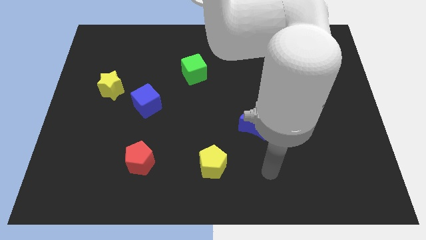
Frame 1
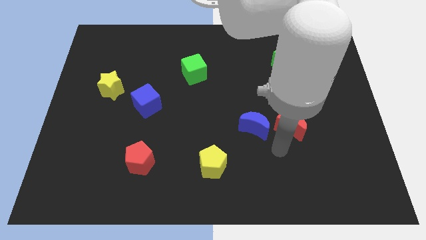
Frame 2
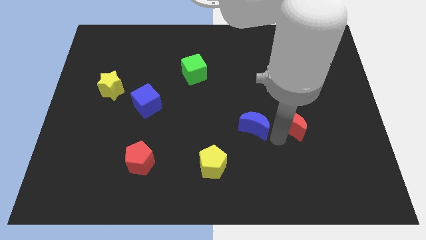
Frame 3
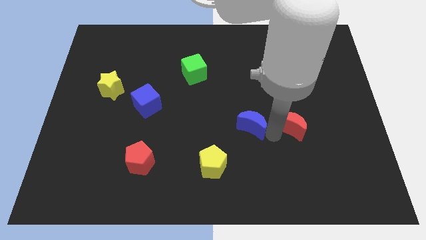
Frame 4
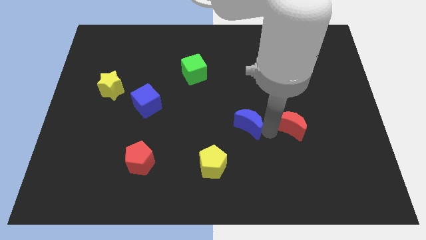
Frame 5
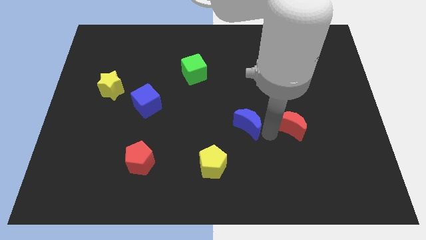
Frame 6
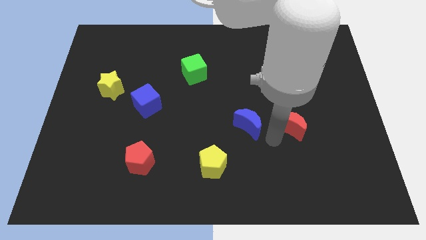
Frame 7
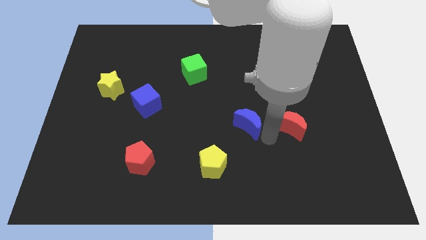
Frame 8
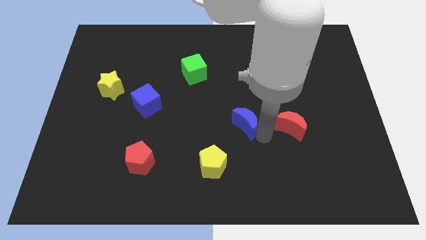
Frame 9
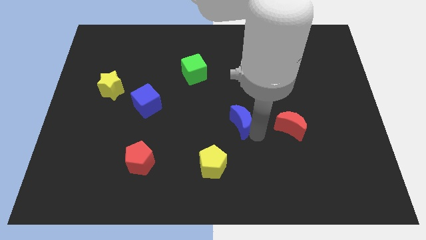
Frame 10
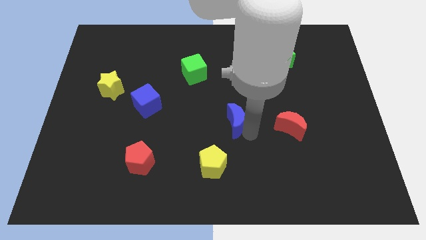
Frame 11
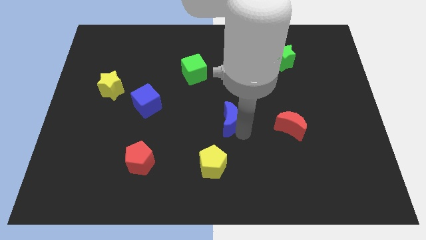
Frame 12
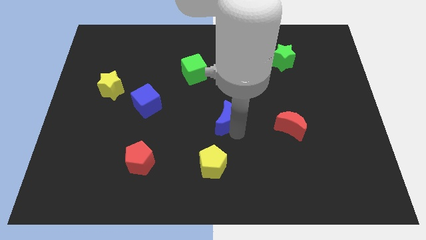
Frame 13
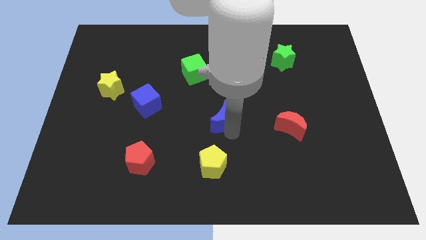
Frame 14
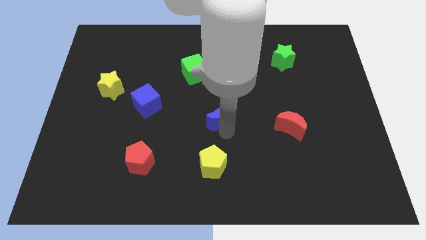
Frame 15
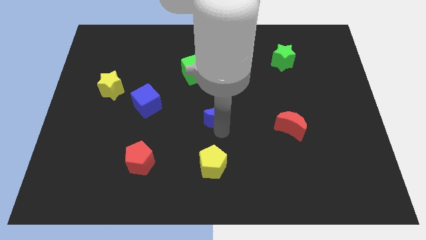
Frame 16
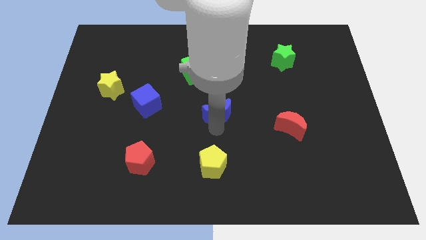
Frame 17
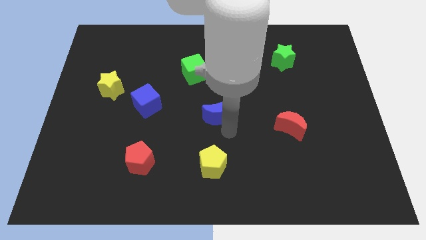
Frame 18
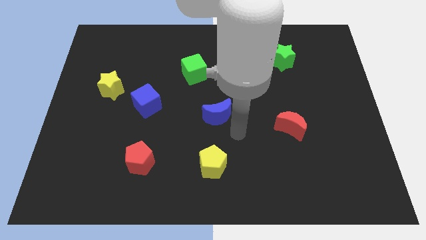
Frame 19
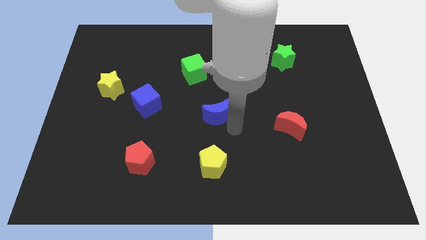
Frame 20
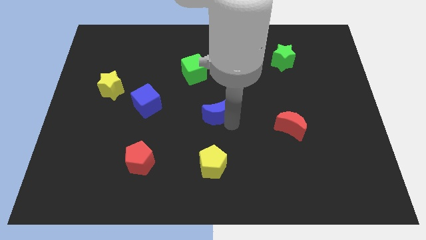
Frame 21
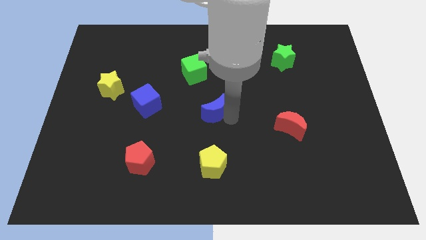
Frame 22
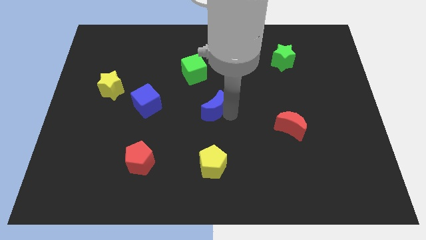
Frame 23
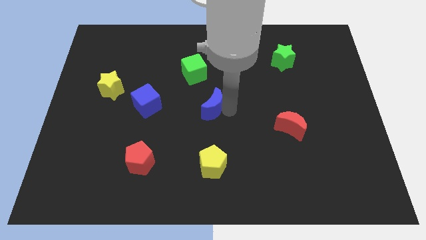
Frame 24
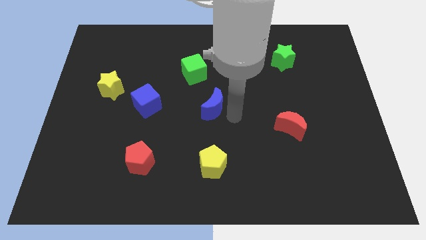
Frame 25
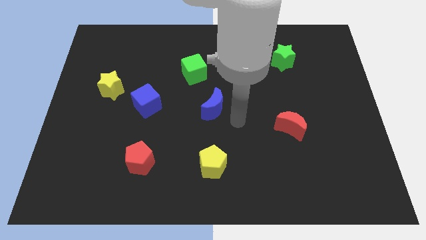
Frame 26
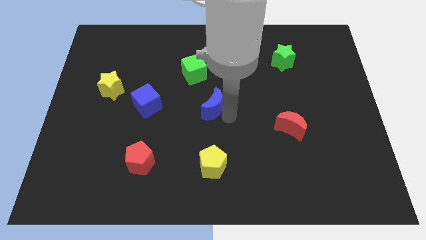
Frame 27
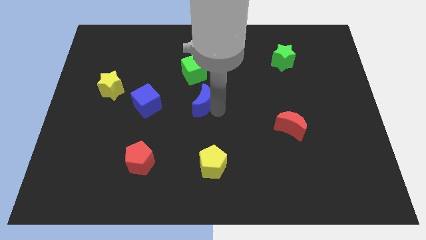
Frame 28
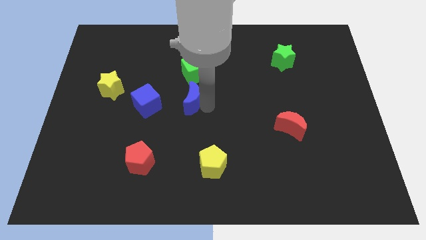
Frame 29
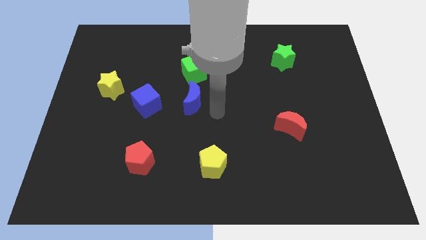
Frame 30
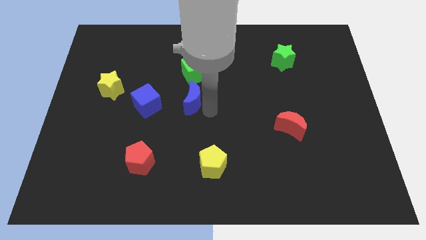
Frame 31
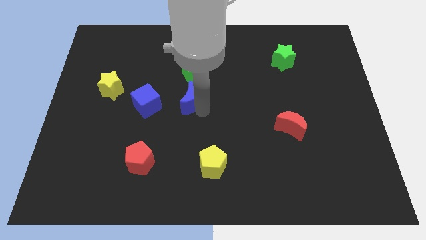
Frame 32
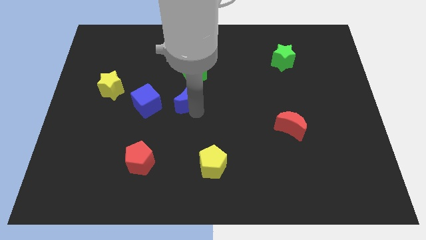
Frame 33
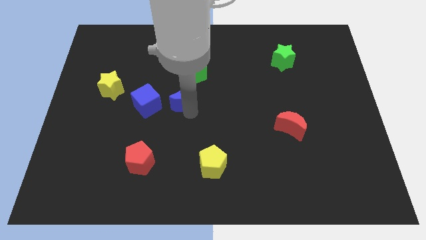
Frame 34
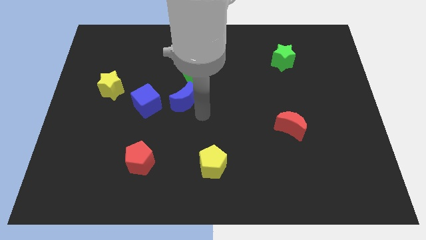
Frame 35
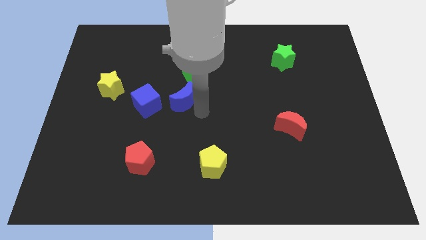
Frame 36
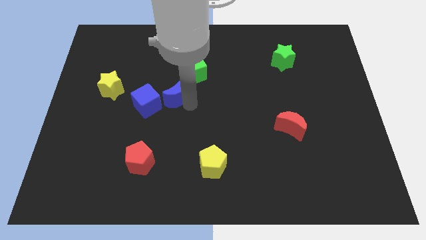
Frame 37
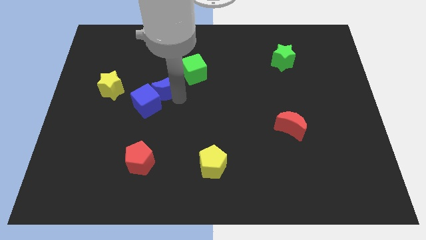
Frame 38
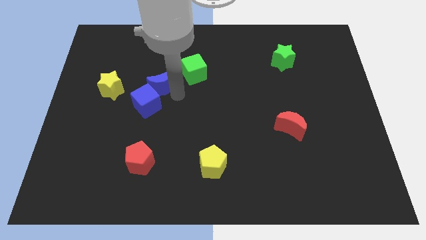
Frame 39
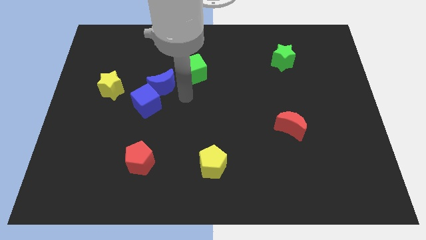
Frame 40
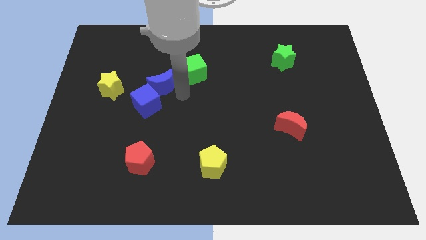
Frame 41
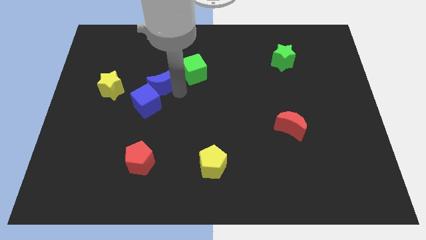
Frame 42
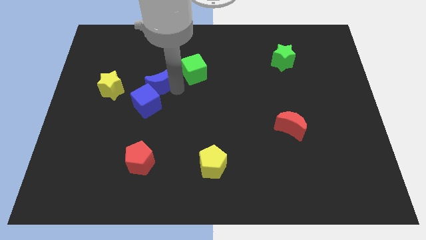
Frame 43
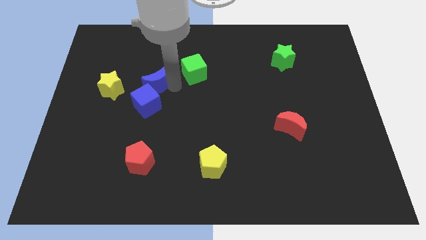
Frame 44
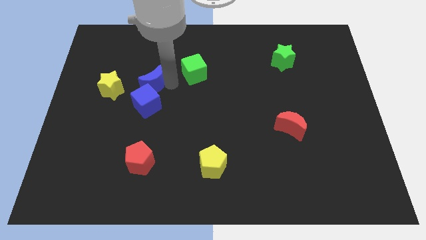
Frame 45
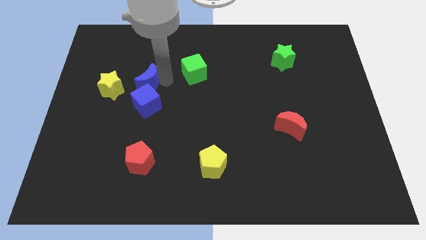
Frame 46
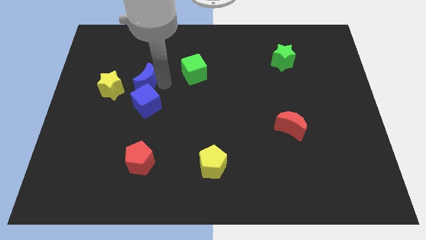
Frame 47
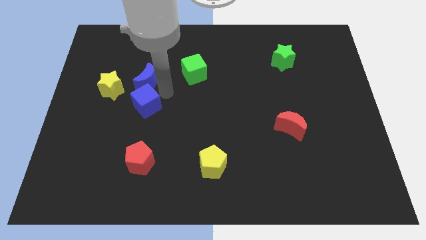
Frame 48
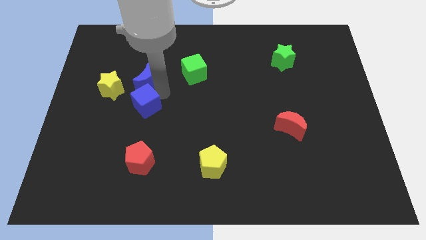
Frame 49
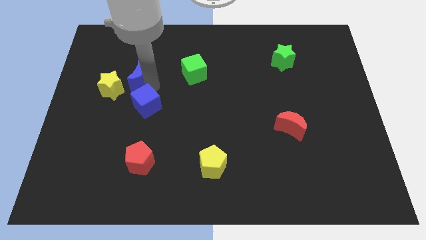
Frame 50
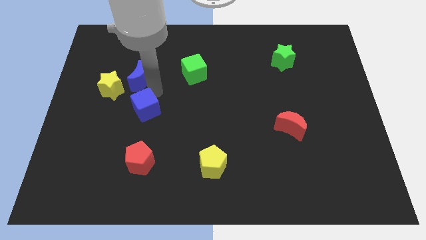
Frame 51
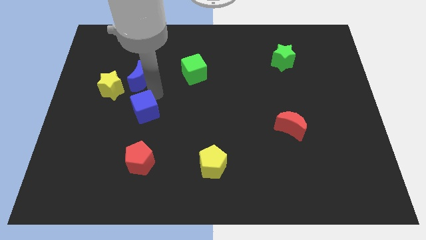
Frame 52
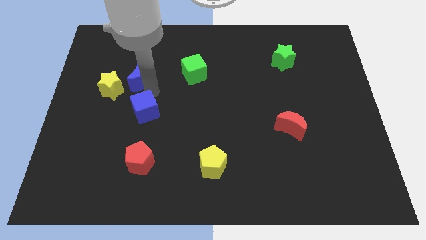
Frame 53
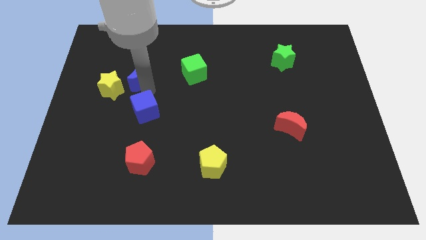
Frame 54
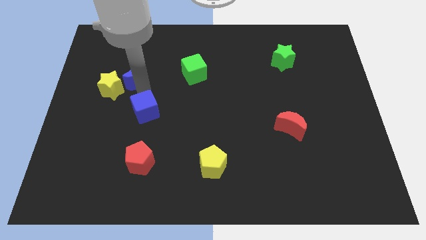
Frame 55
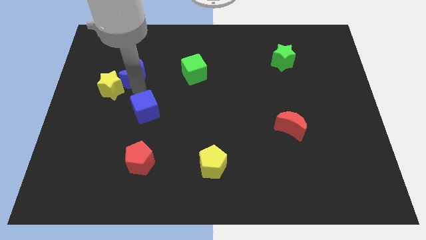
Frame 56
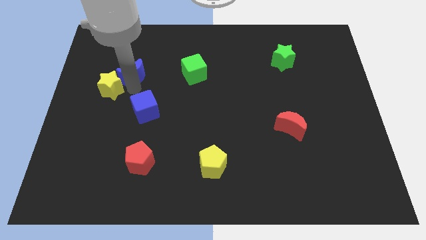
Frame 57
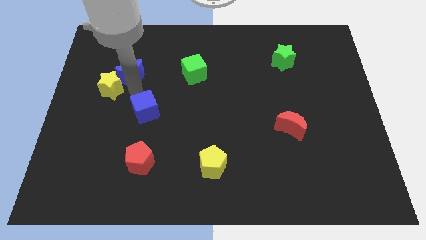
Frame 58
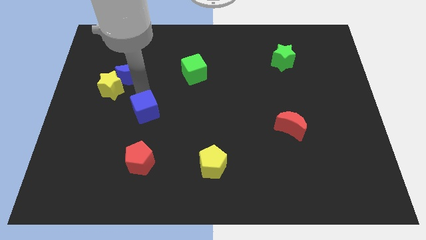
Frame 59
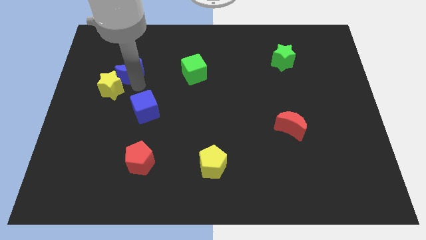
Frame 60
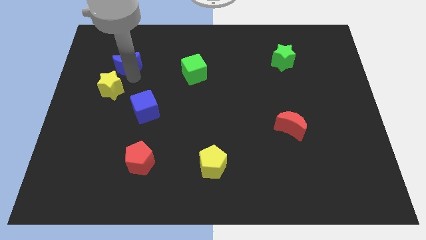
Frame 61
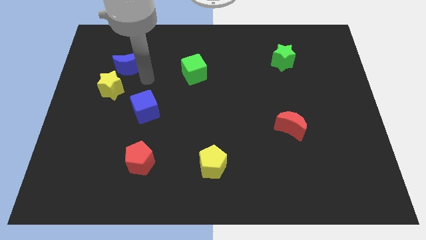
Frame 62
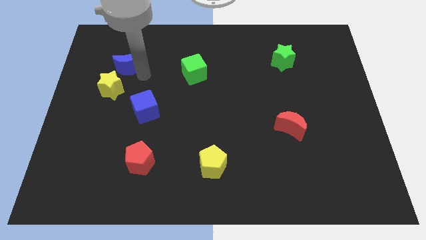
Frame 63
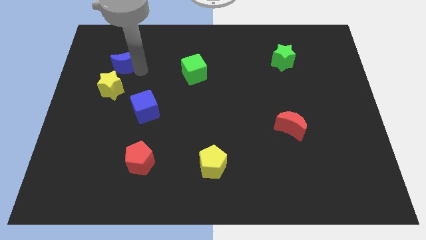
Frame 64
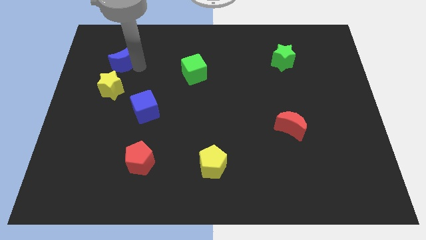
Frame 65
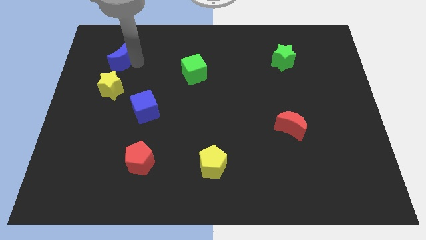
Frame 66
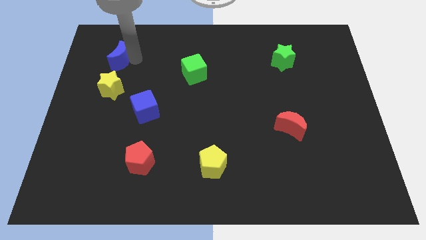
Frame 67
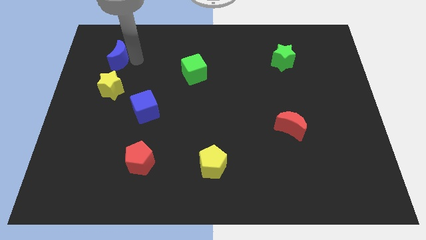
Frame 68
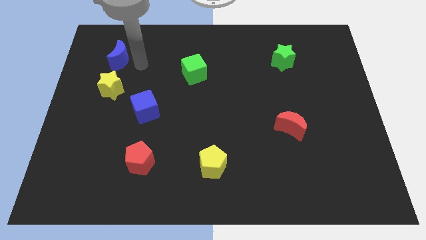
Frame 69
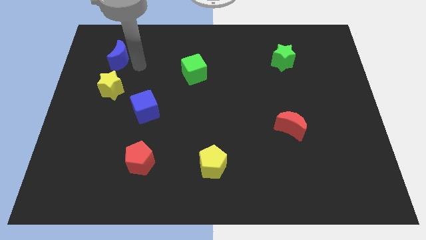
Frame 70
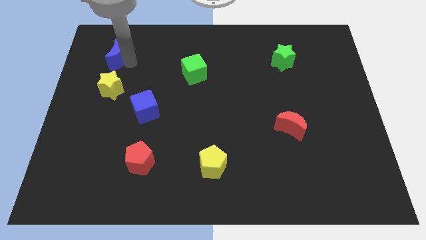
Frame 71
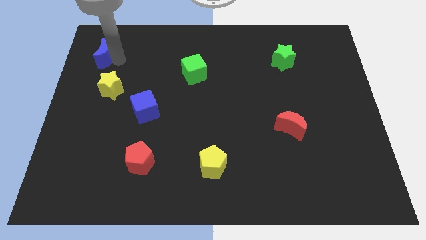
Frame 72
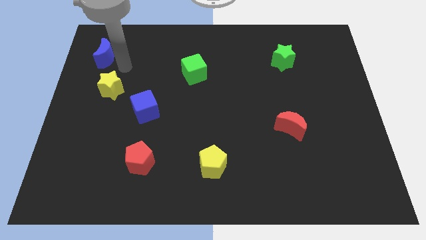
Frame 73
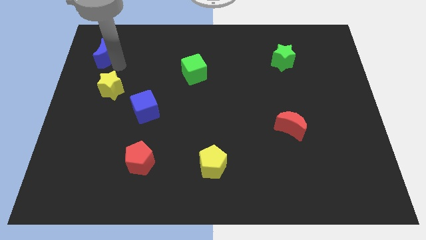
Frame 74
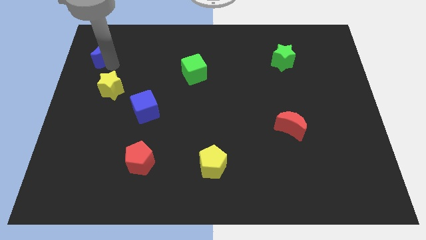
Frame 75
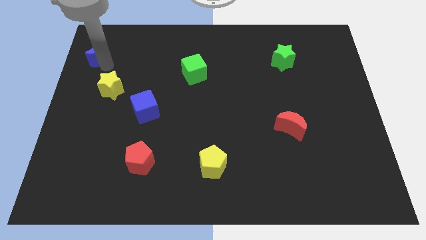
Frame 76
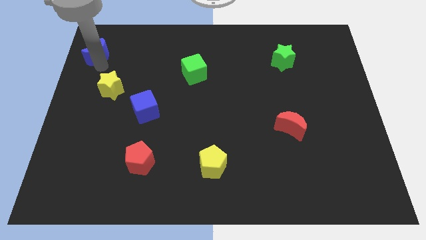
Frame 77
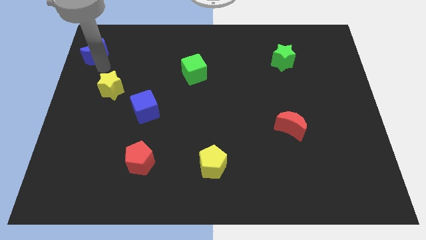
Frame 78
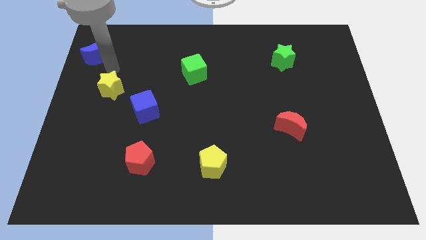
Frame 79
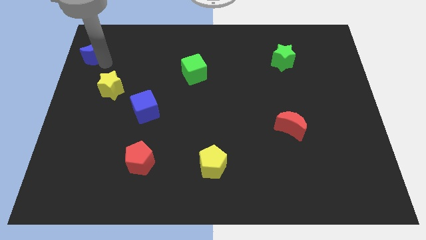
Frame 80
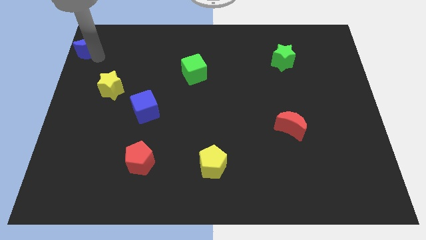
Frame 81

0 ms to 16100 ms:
push the blue moon to the top left
